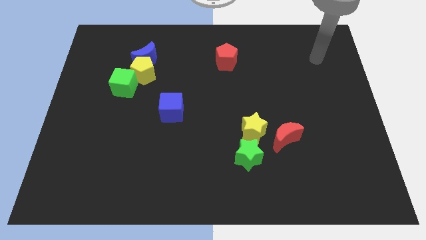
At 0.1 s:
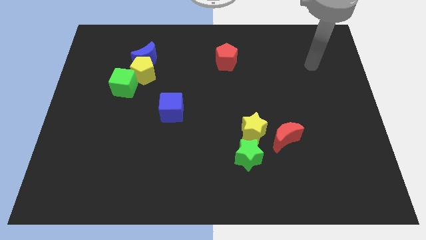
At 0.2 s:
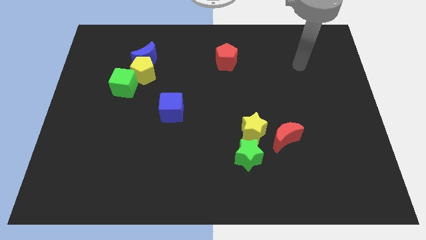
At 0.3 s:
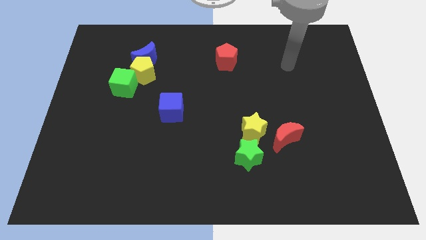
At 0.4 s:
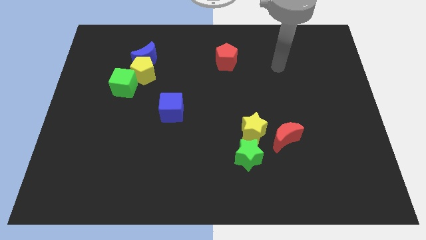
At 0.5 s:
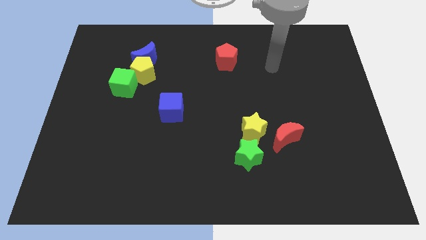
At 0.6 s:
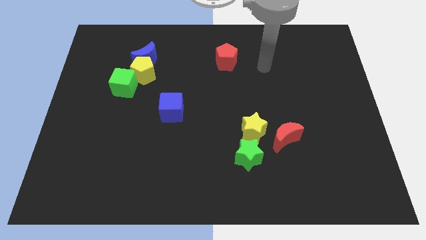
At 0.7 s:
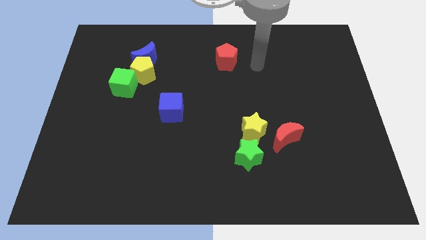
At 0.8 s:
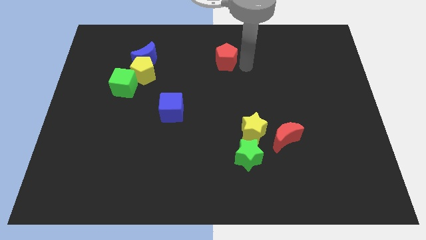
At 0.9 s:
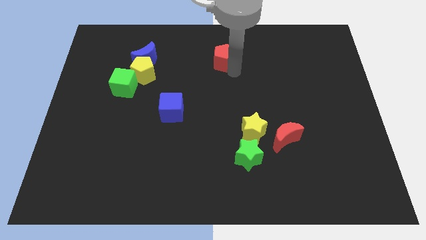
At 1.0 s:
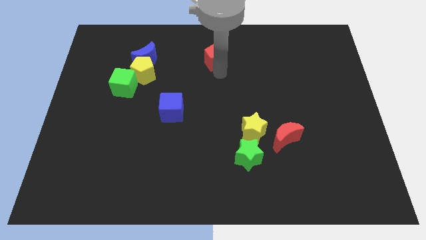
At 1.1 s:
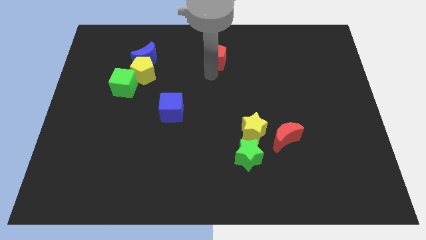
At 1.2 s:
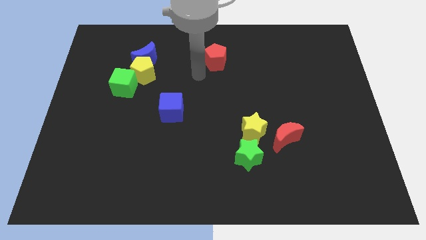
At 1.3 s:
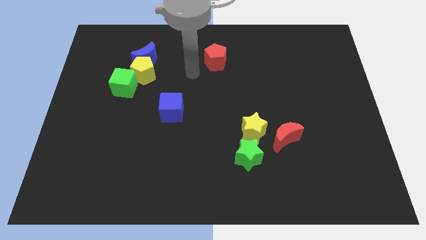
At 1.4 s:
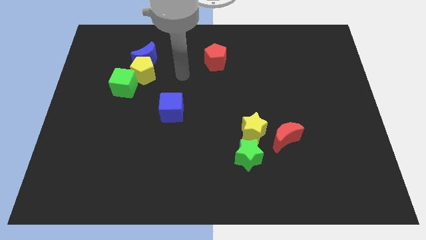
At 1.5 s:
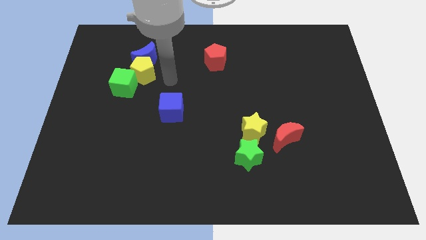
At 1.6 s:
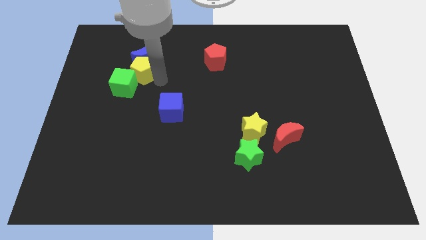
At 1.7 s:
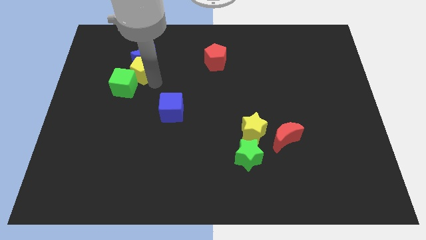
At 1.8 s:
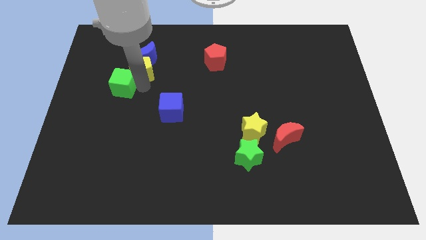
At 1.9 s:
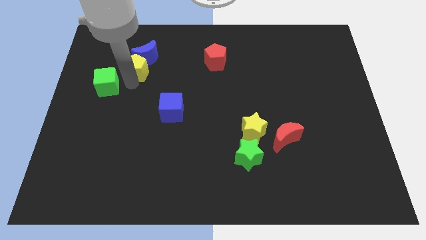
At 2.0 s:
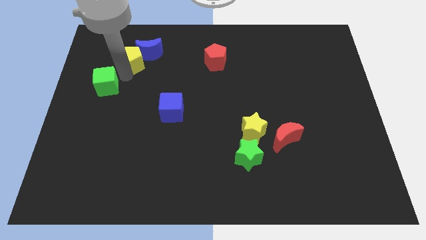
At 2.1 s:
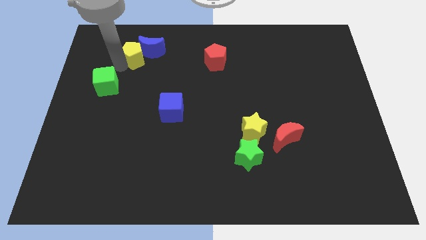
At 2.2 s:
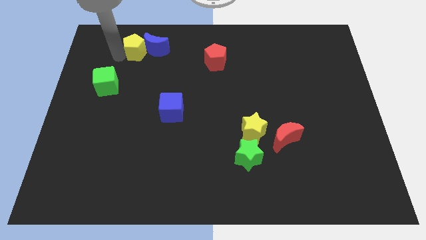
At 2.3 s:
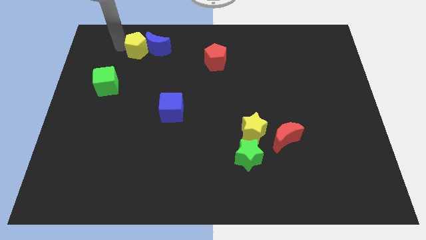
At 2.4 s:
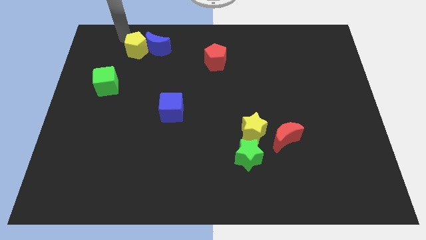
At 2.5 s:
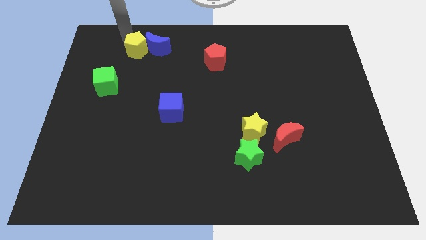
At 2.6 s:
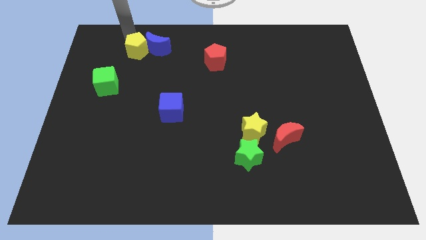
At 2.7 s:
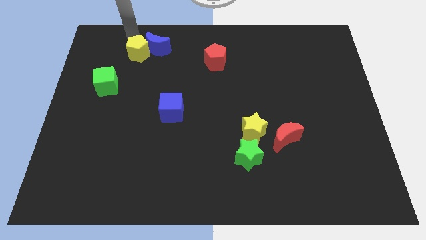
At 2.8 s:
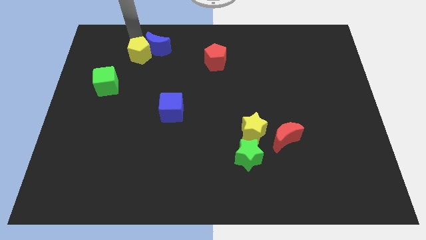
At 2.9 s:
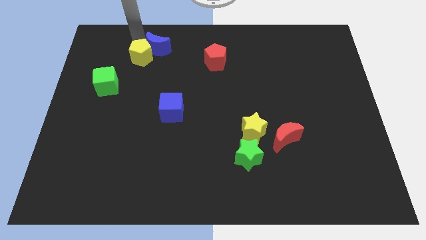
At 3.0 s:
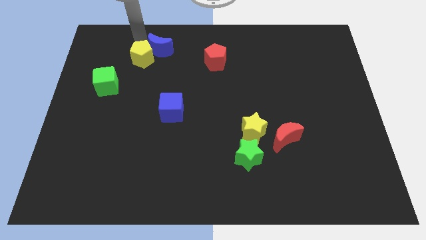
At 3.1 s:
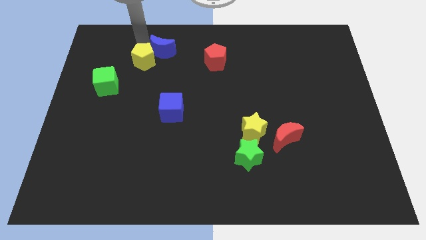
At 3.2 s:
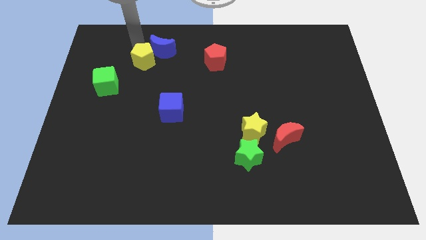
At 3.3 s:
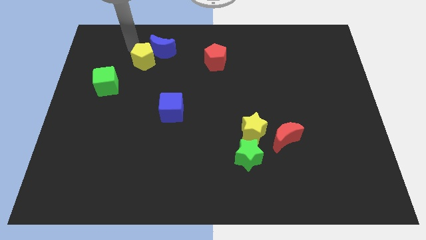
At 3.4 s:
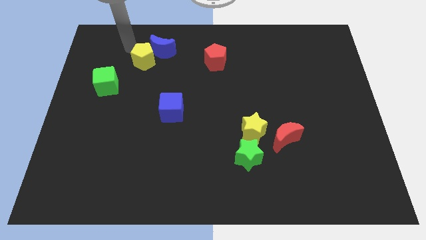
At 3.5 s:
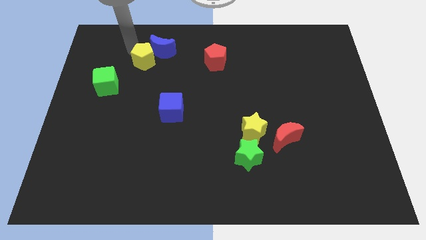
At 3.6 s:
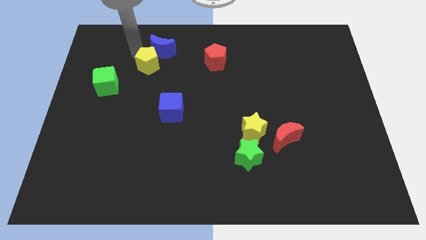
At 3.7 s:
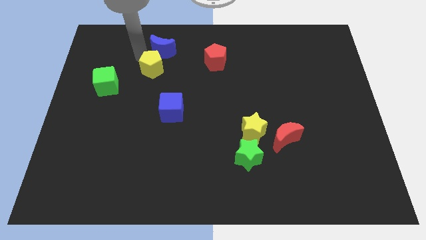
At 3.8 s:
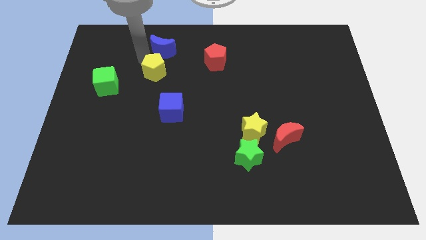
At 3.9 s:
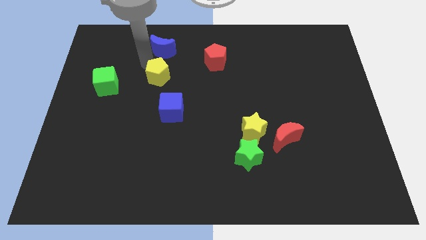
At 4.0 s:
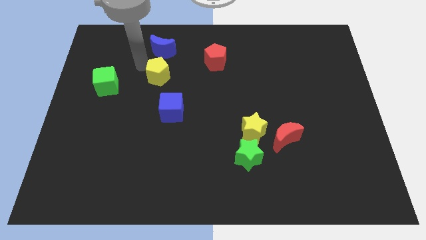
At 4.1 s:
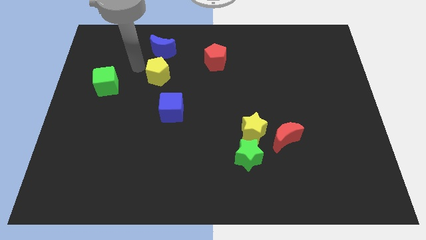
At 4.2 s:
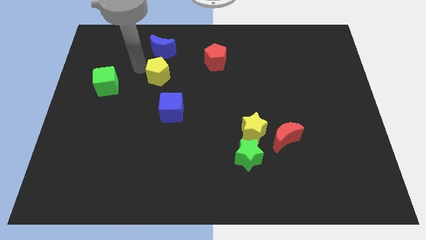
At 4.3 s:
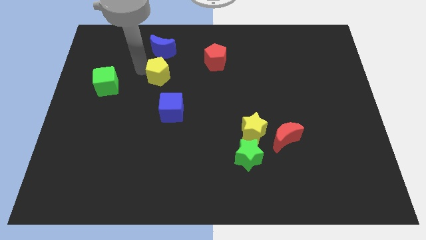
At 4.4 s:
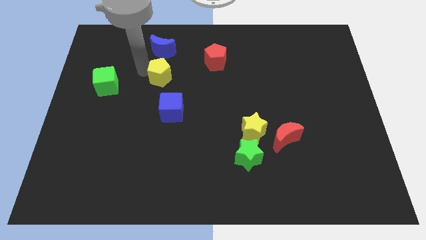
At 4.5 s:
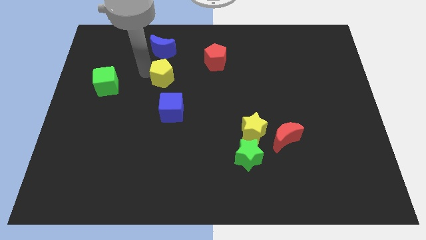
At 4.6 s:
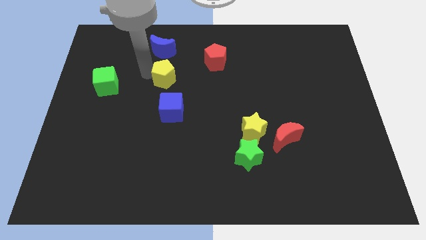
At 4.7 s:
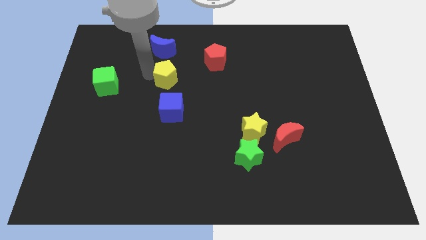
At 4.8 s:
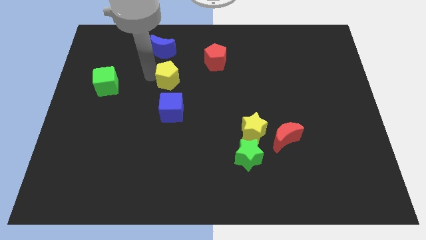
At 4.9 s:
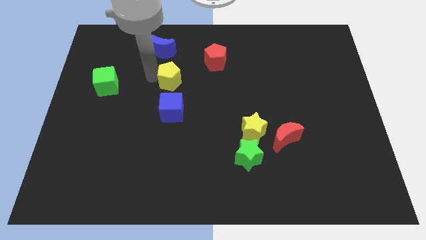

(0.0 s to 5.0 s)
separate the yellow pentagon from the blue moon and green cube

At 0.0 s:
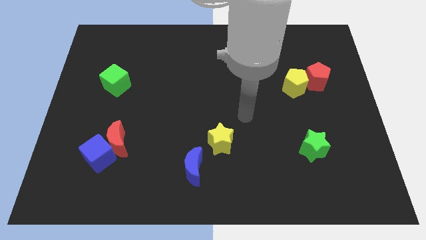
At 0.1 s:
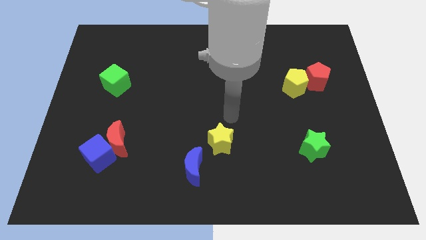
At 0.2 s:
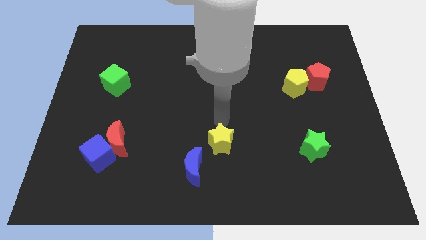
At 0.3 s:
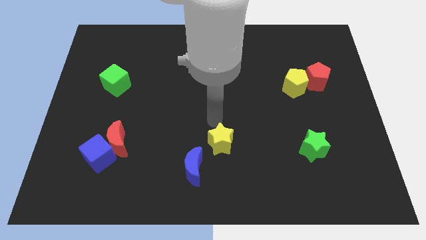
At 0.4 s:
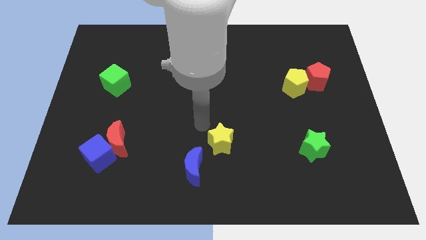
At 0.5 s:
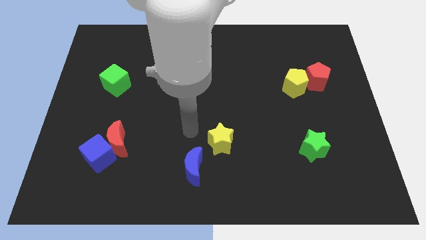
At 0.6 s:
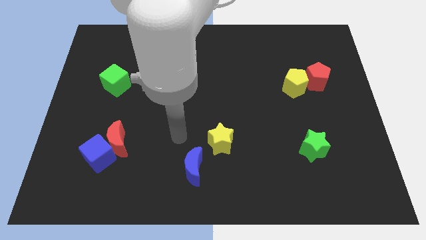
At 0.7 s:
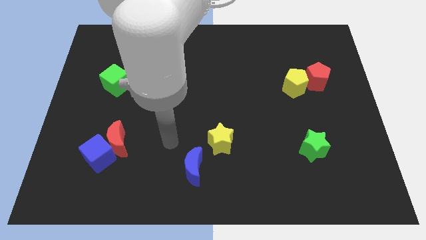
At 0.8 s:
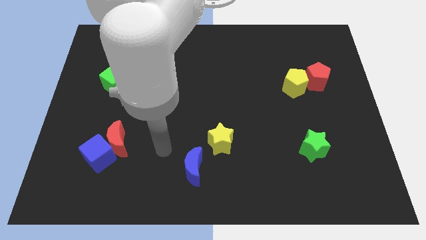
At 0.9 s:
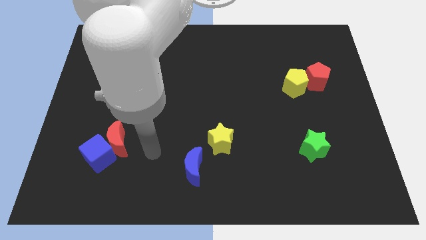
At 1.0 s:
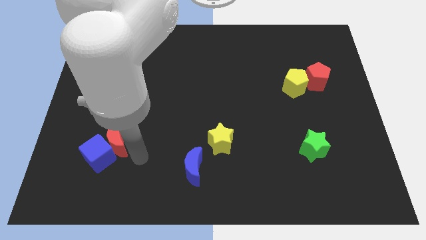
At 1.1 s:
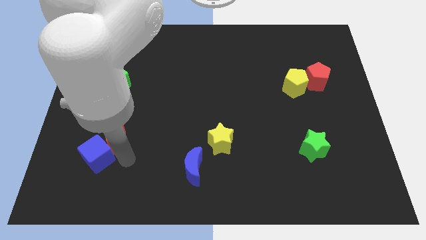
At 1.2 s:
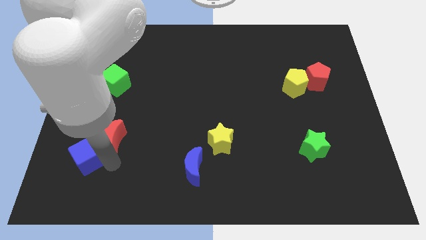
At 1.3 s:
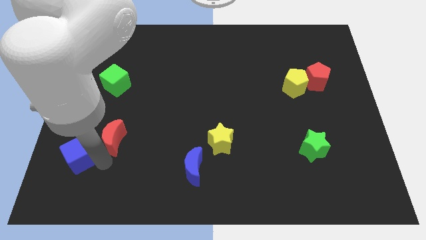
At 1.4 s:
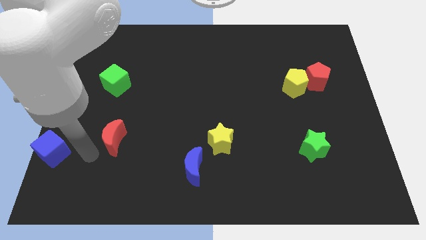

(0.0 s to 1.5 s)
move the red moon away from the blue cube

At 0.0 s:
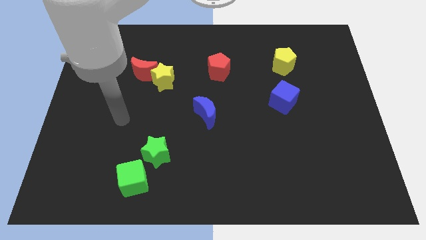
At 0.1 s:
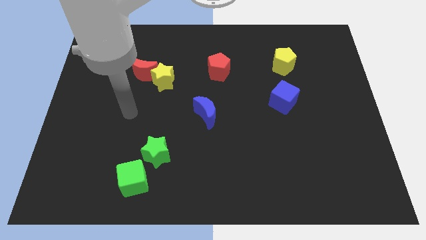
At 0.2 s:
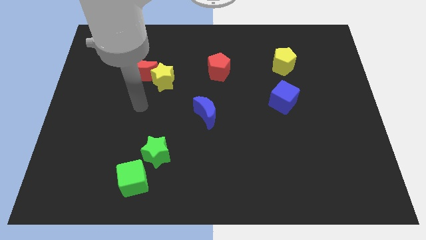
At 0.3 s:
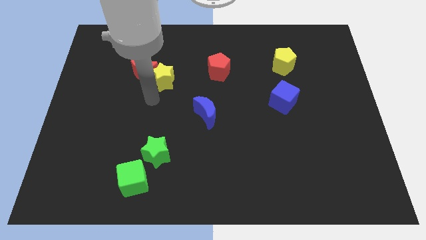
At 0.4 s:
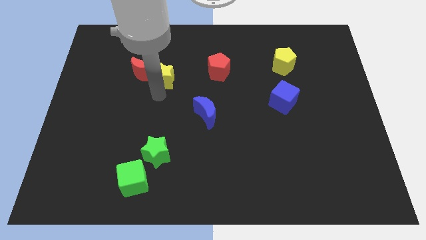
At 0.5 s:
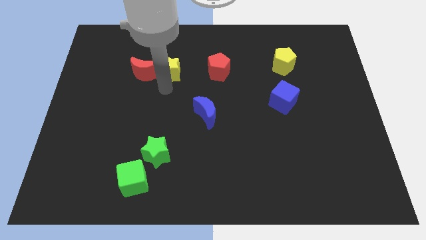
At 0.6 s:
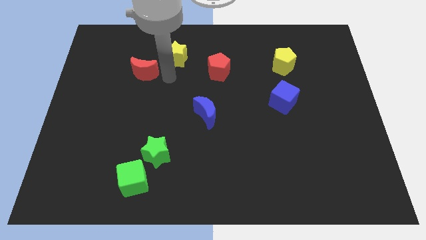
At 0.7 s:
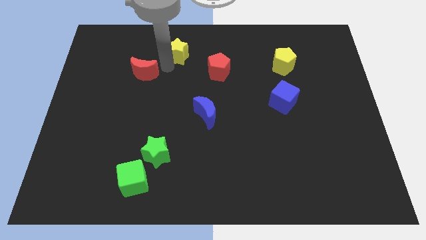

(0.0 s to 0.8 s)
move the red moon away from the yellow star

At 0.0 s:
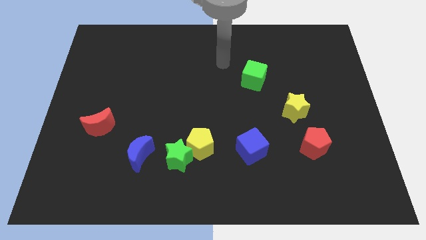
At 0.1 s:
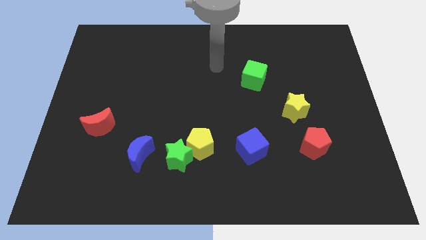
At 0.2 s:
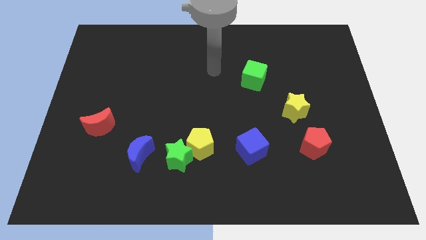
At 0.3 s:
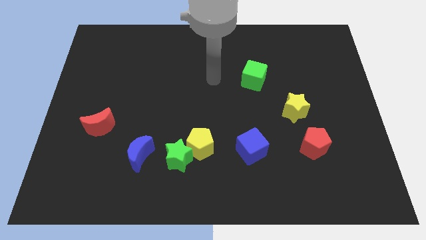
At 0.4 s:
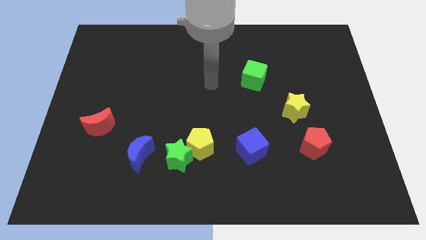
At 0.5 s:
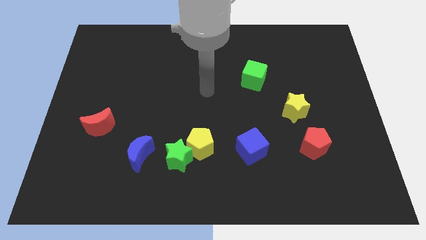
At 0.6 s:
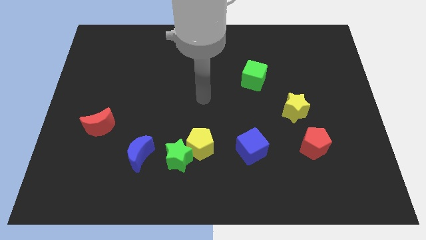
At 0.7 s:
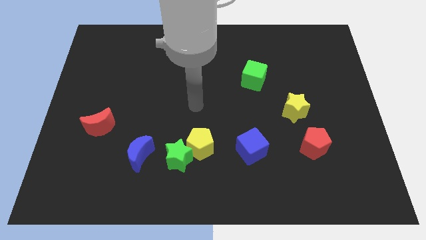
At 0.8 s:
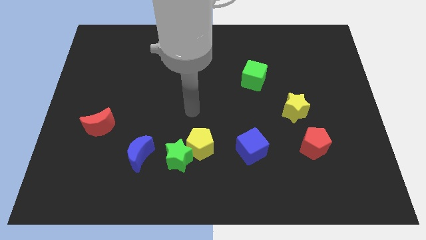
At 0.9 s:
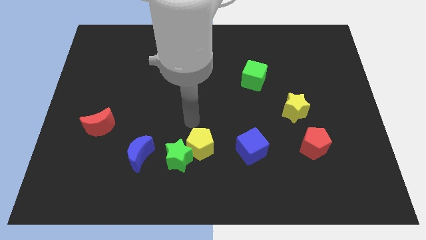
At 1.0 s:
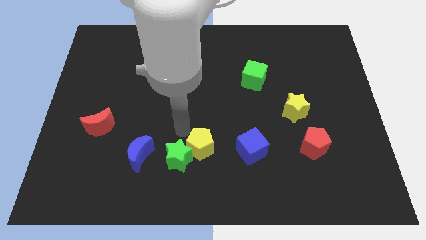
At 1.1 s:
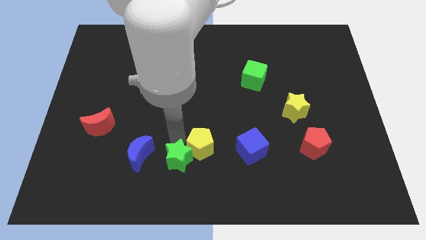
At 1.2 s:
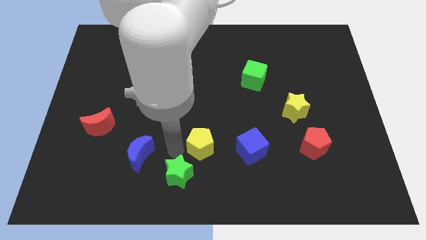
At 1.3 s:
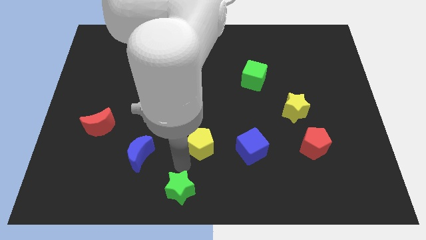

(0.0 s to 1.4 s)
pull the yellow pentagon apart from the green star

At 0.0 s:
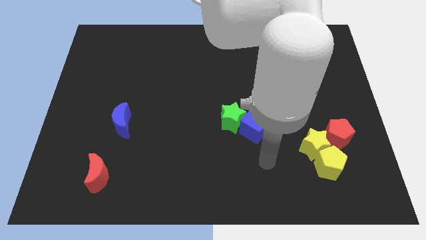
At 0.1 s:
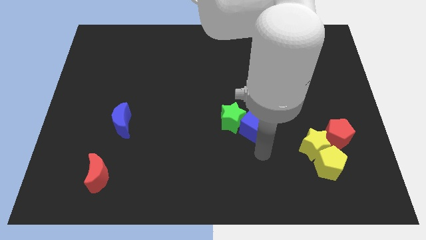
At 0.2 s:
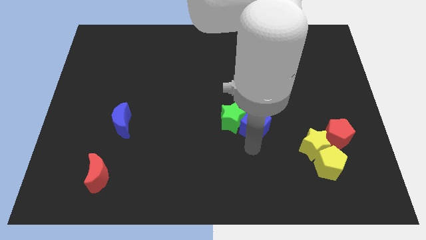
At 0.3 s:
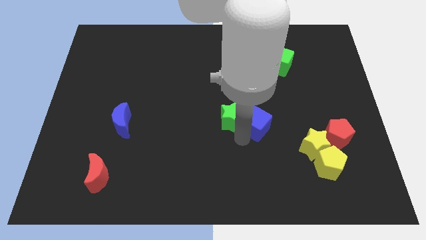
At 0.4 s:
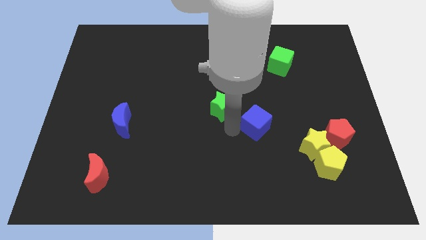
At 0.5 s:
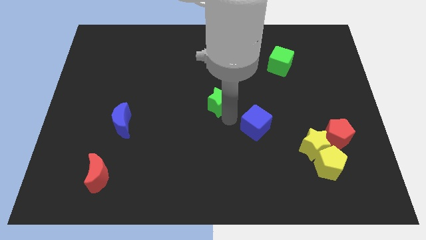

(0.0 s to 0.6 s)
pull the blue cube apart from the green star
